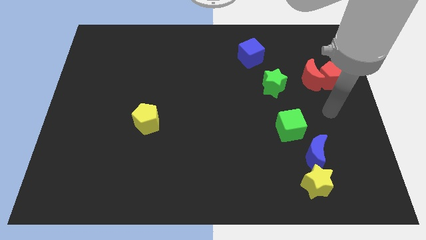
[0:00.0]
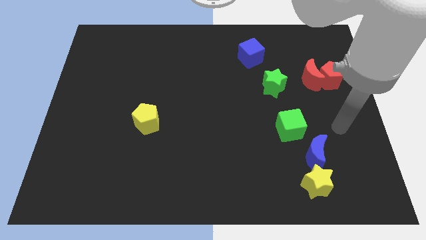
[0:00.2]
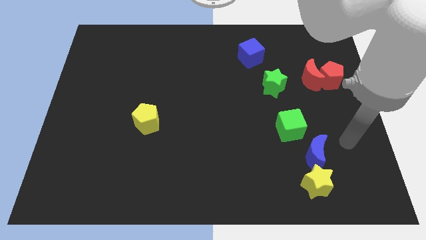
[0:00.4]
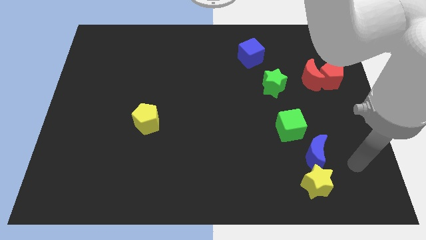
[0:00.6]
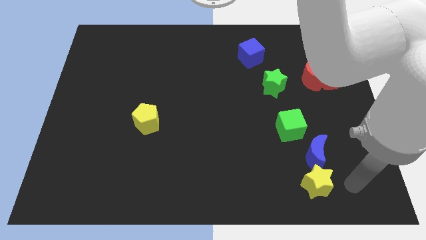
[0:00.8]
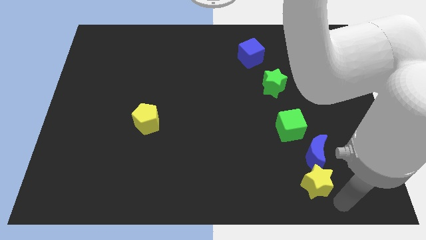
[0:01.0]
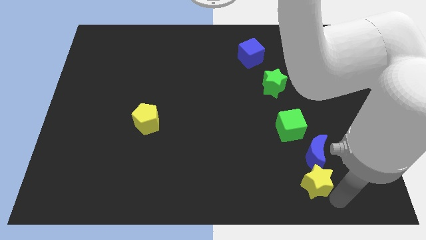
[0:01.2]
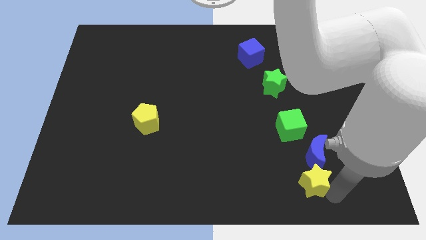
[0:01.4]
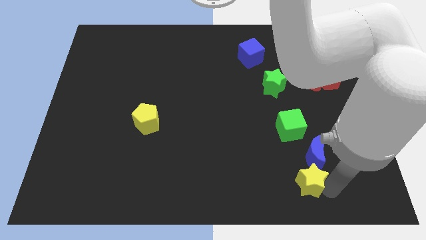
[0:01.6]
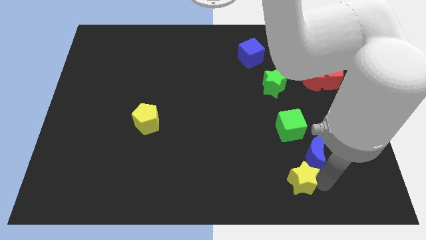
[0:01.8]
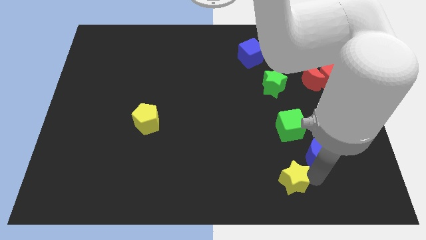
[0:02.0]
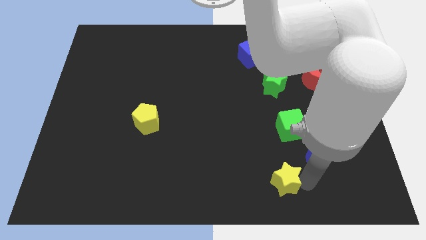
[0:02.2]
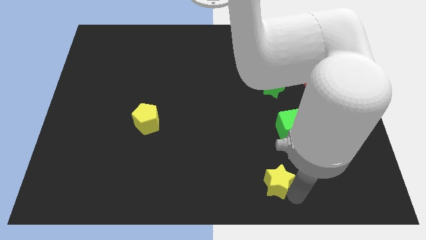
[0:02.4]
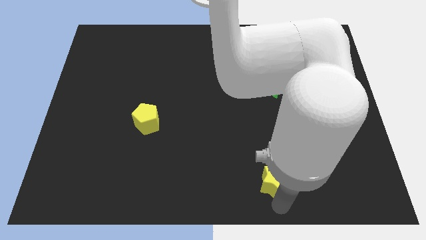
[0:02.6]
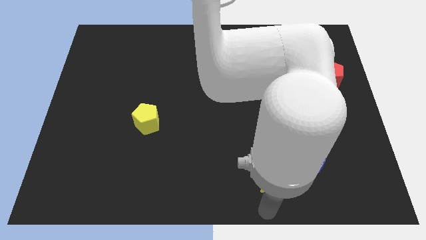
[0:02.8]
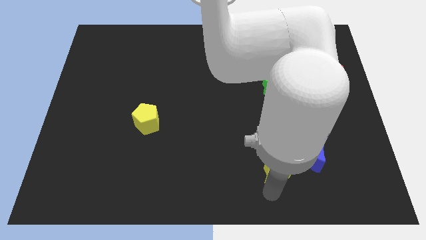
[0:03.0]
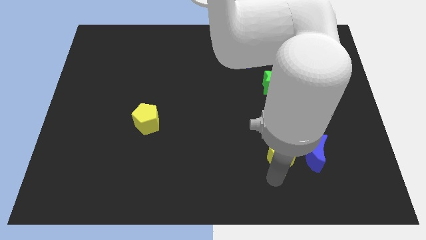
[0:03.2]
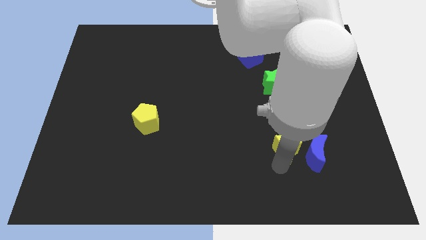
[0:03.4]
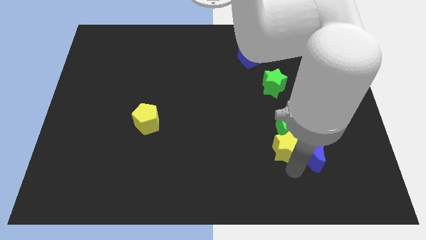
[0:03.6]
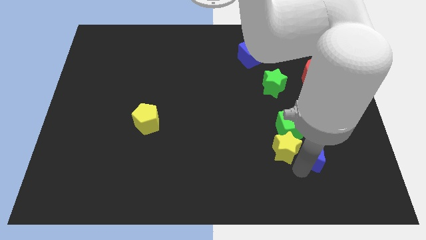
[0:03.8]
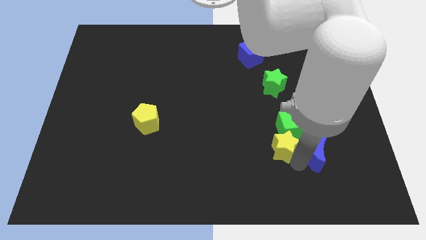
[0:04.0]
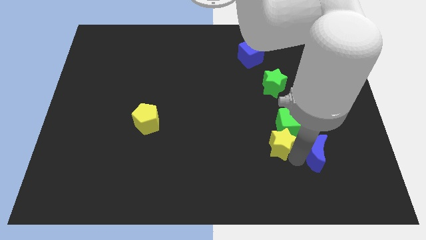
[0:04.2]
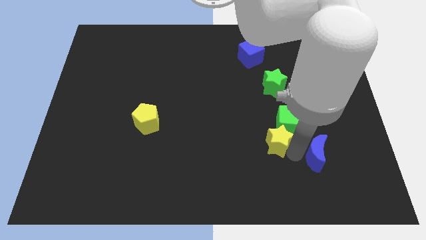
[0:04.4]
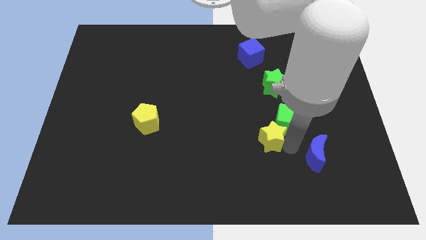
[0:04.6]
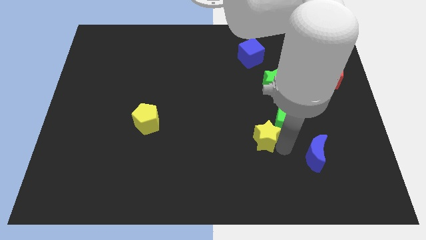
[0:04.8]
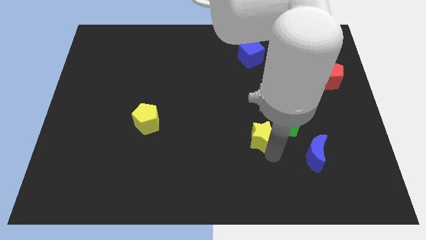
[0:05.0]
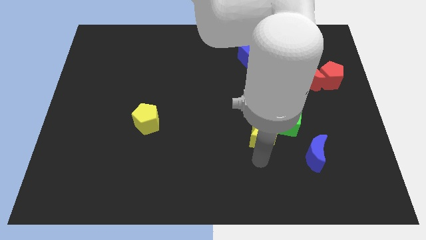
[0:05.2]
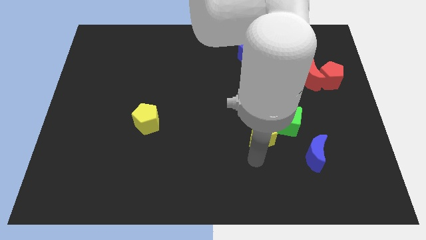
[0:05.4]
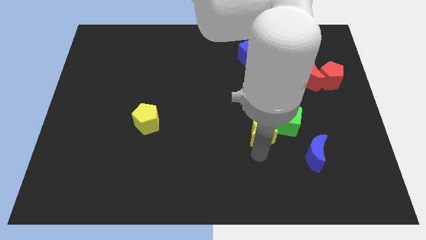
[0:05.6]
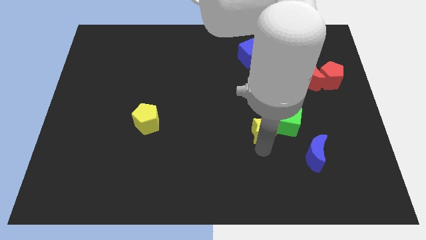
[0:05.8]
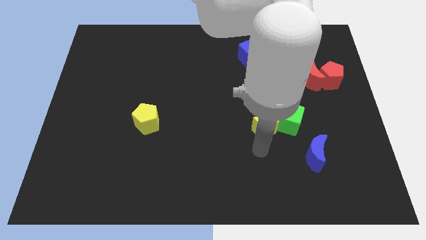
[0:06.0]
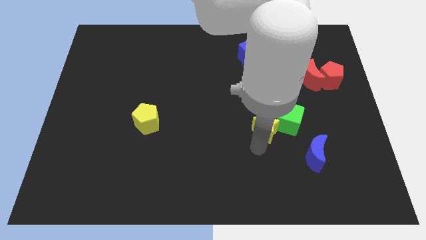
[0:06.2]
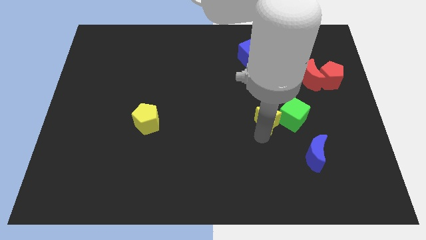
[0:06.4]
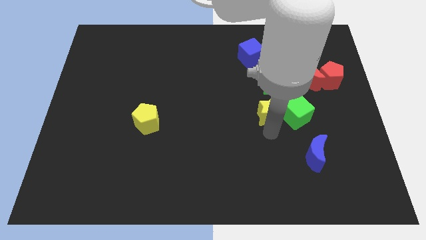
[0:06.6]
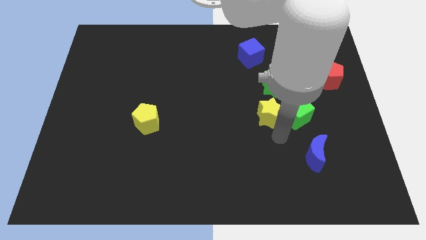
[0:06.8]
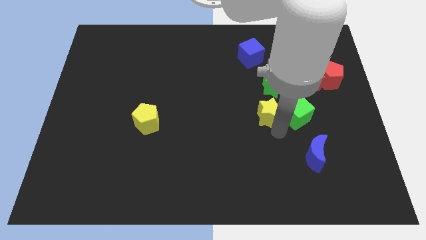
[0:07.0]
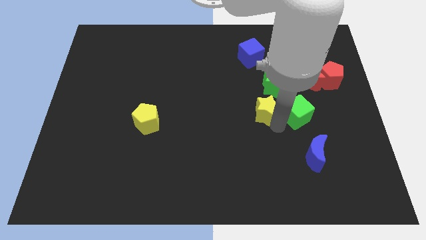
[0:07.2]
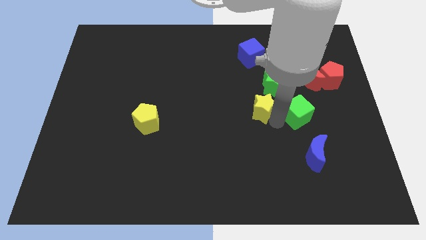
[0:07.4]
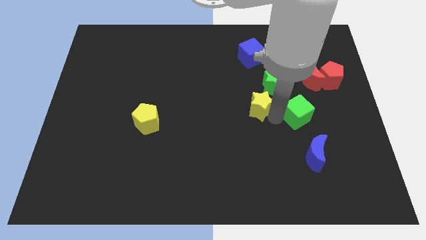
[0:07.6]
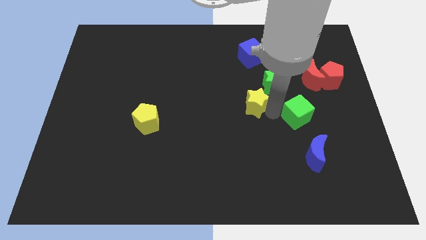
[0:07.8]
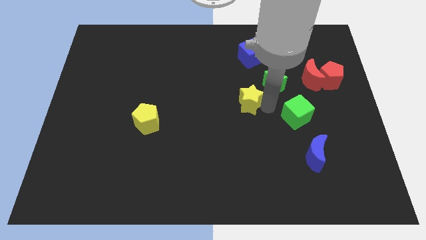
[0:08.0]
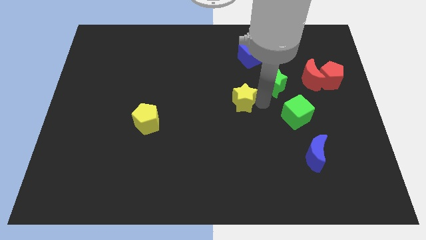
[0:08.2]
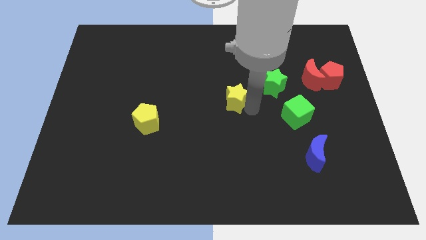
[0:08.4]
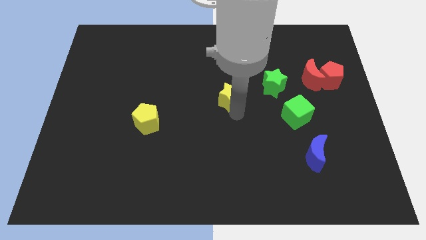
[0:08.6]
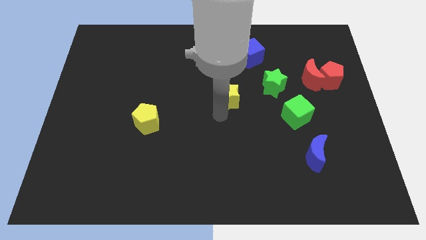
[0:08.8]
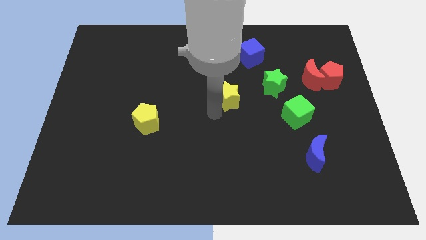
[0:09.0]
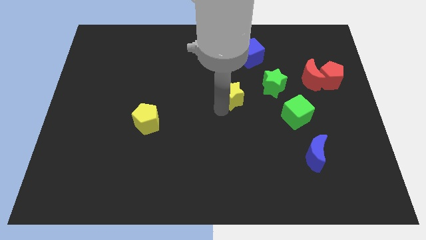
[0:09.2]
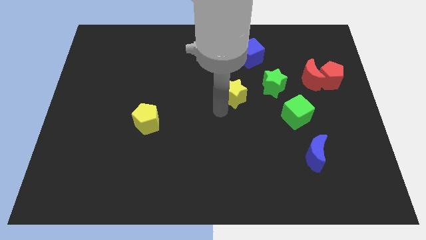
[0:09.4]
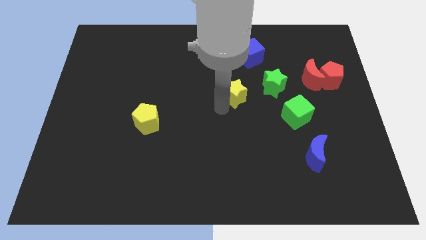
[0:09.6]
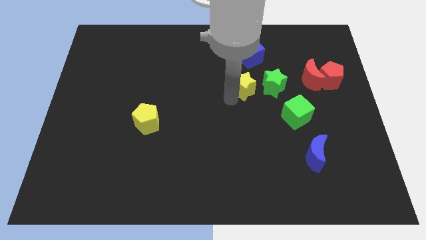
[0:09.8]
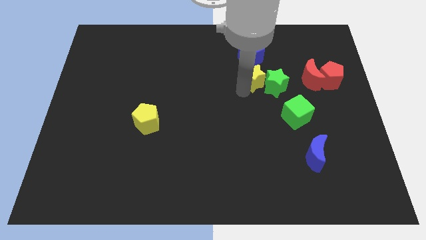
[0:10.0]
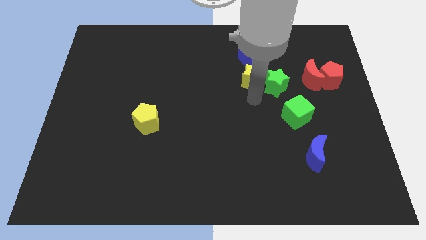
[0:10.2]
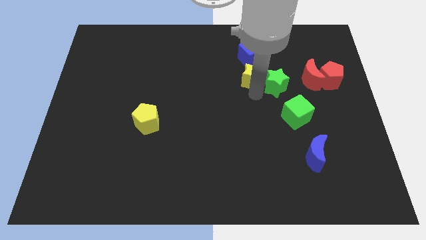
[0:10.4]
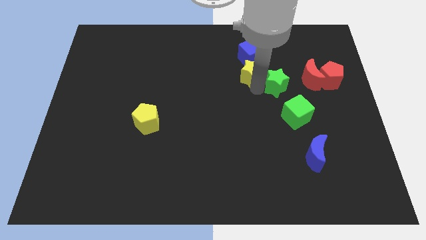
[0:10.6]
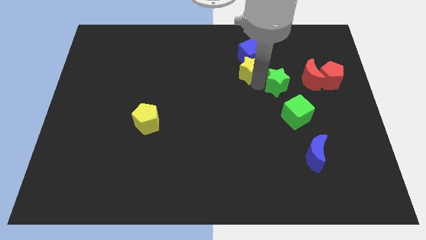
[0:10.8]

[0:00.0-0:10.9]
put the yellow star to the blue cube

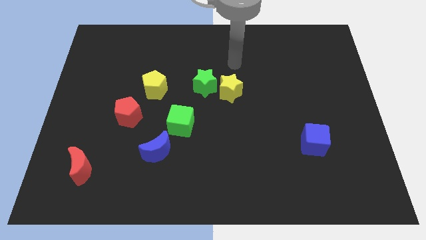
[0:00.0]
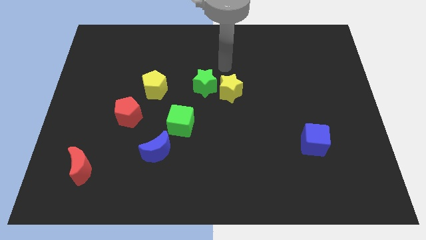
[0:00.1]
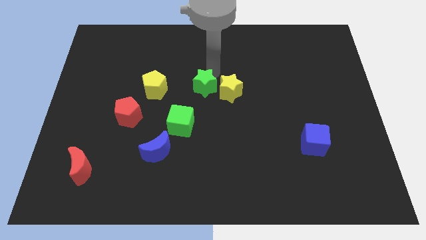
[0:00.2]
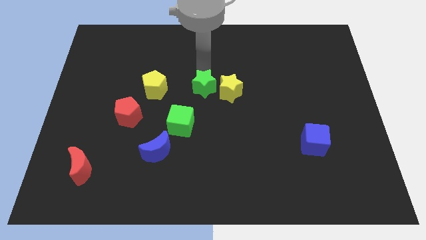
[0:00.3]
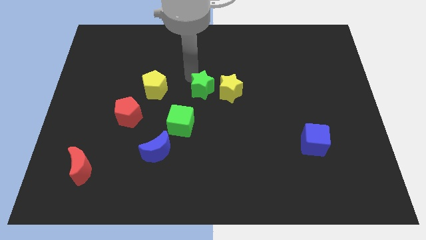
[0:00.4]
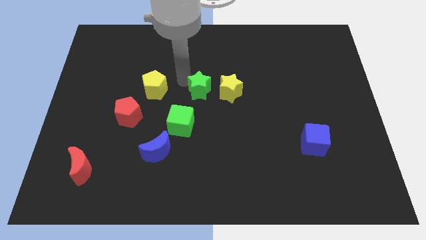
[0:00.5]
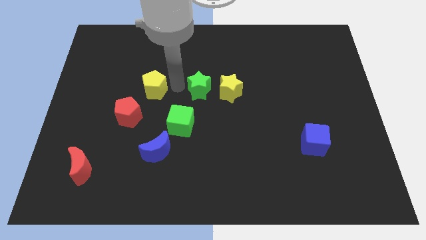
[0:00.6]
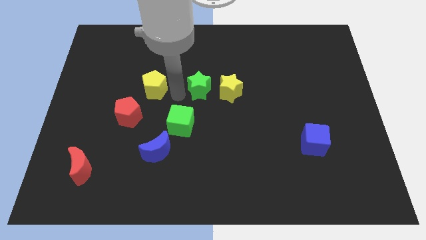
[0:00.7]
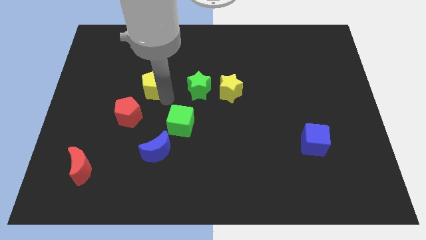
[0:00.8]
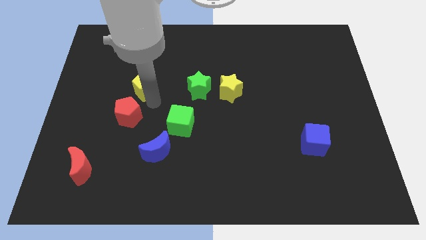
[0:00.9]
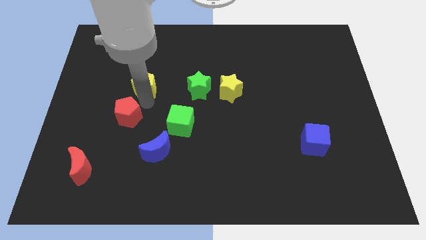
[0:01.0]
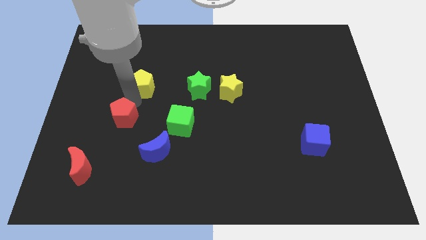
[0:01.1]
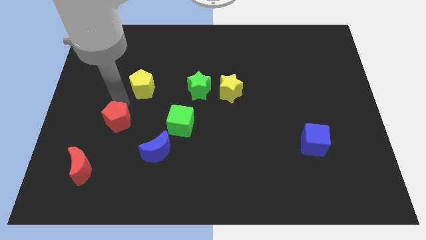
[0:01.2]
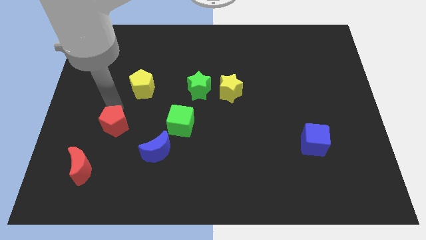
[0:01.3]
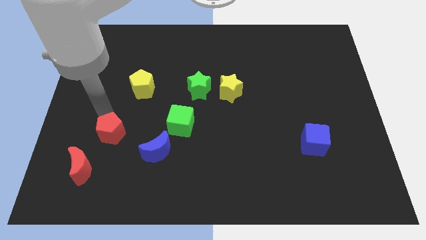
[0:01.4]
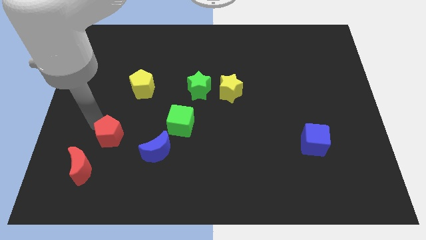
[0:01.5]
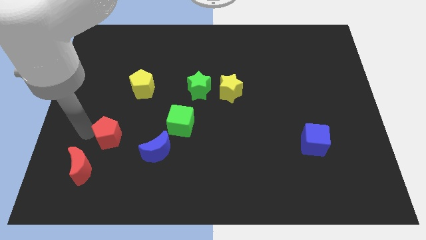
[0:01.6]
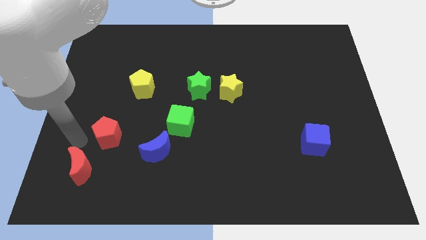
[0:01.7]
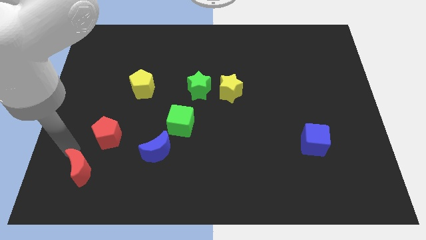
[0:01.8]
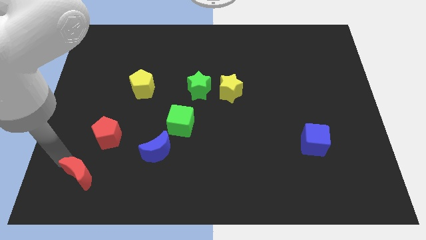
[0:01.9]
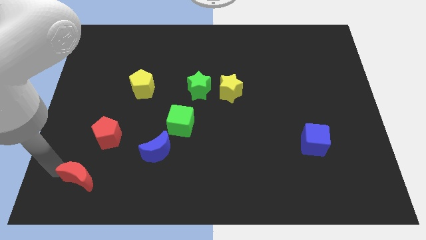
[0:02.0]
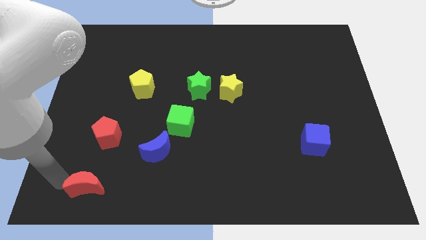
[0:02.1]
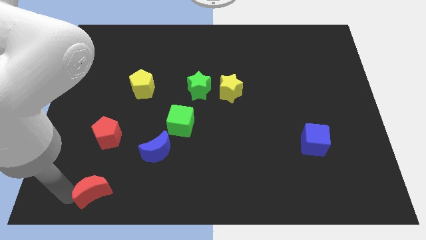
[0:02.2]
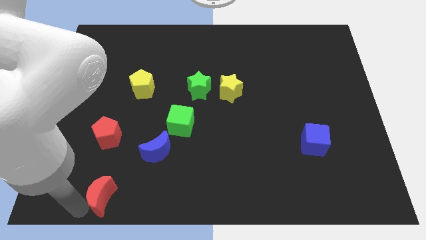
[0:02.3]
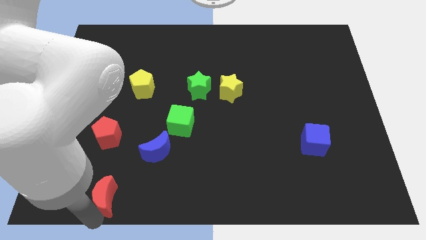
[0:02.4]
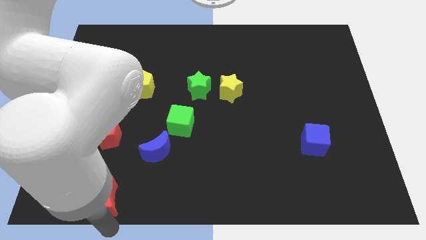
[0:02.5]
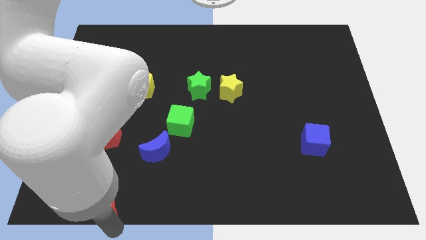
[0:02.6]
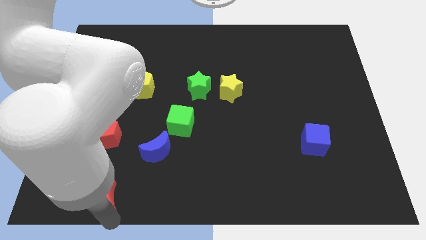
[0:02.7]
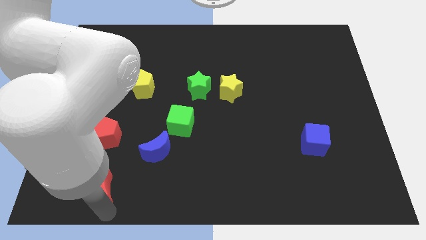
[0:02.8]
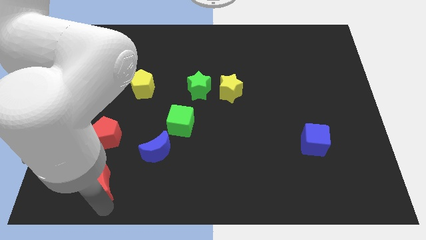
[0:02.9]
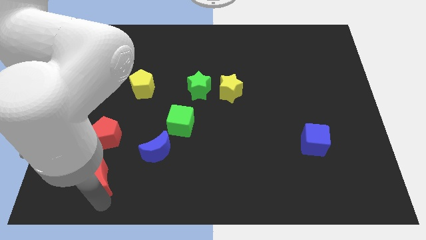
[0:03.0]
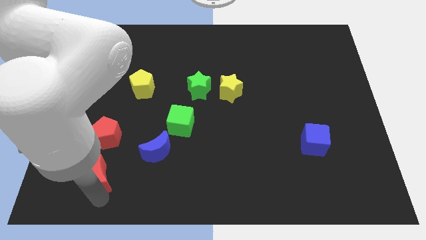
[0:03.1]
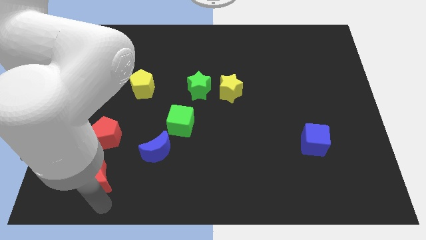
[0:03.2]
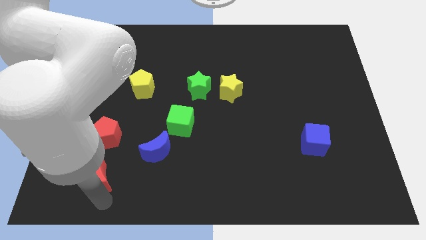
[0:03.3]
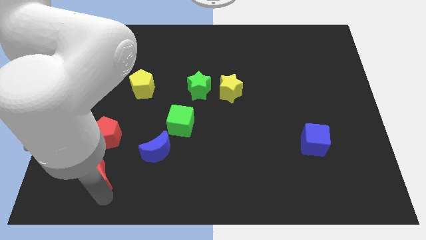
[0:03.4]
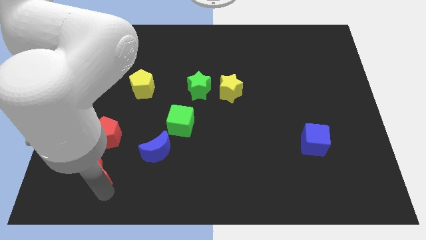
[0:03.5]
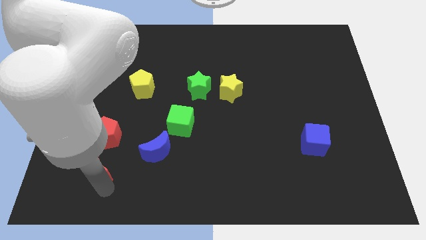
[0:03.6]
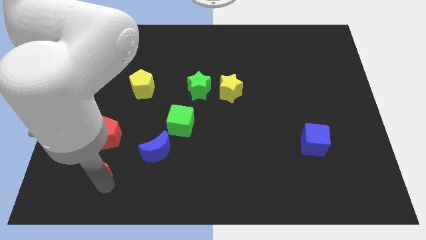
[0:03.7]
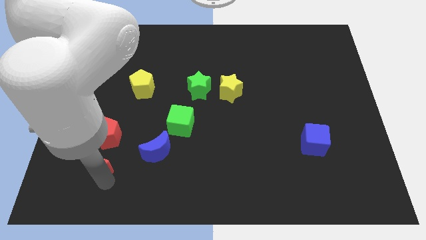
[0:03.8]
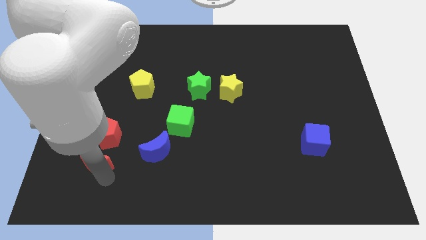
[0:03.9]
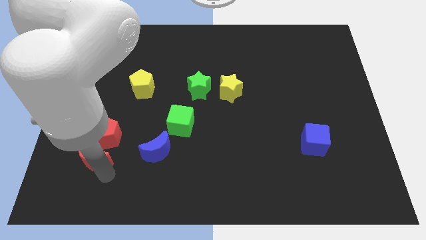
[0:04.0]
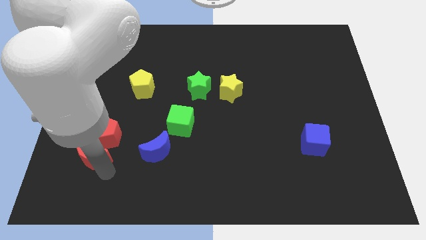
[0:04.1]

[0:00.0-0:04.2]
push the red moon next to the red pentagon
